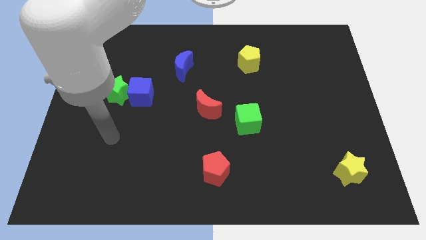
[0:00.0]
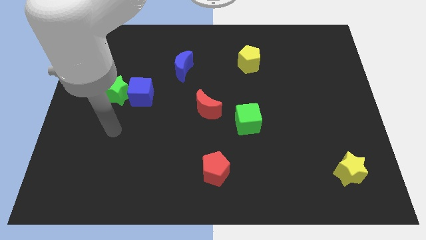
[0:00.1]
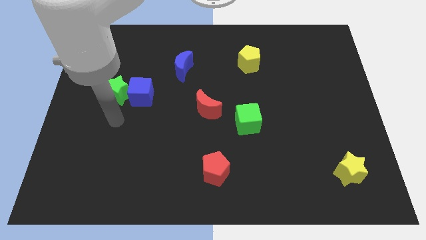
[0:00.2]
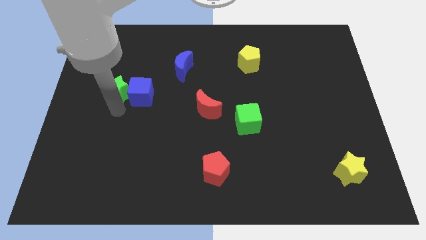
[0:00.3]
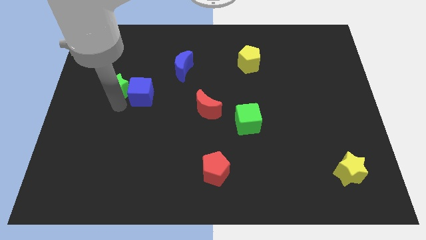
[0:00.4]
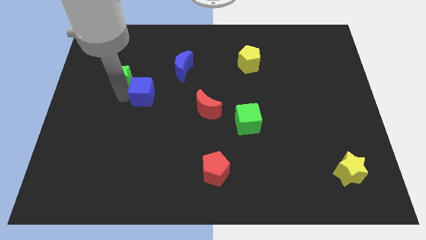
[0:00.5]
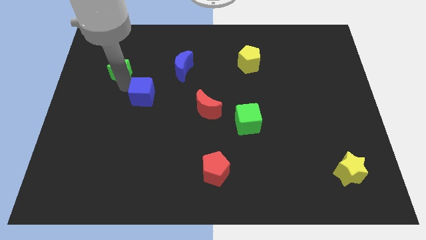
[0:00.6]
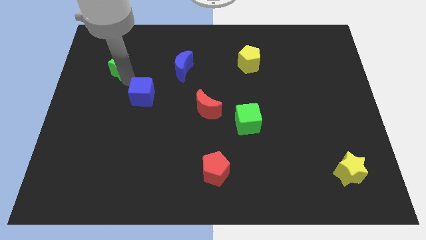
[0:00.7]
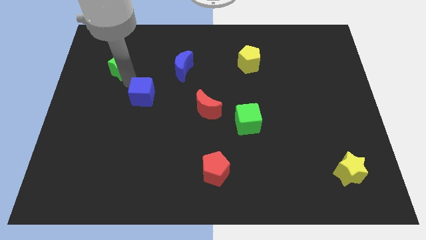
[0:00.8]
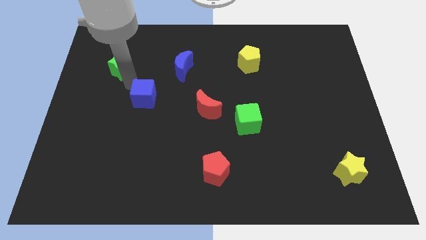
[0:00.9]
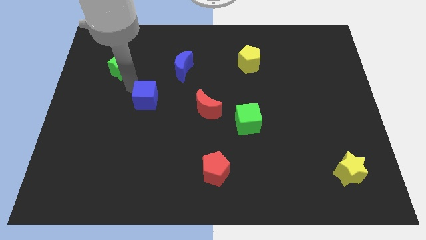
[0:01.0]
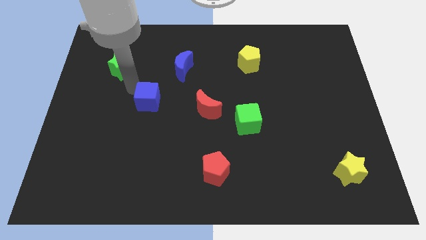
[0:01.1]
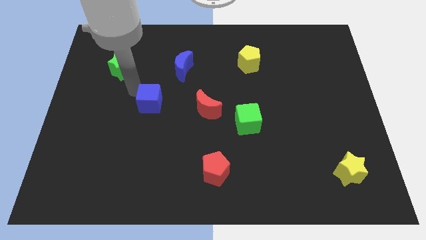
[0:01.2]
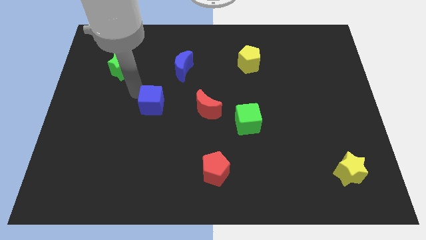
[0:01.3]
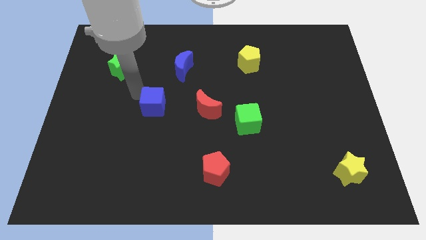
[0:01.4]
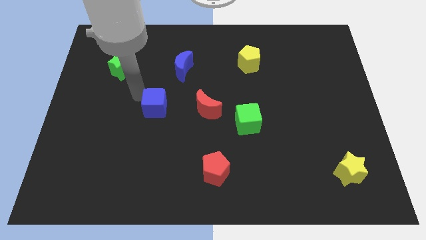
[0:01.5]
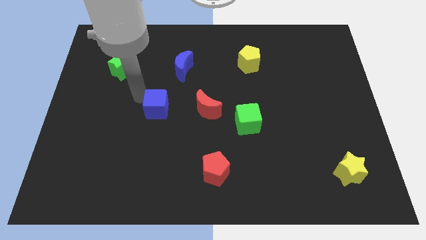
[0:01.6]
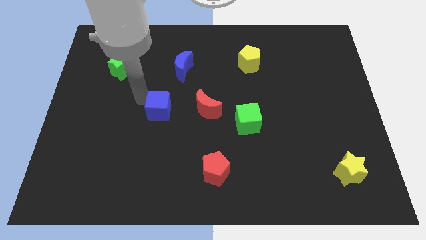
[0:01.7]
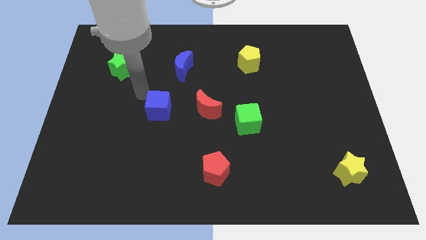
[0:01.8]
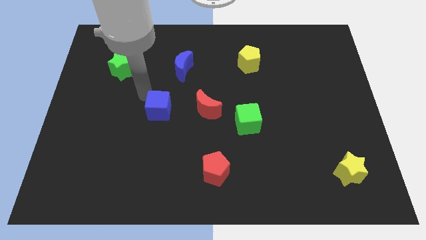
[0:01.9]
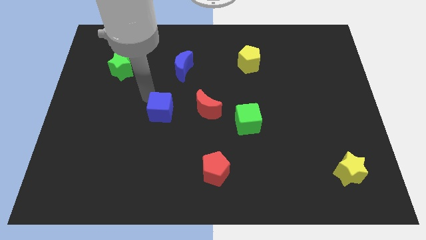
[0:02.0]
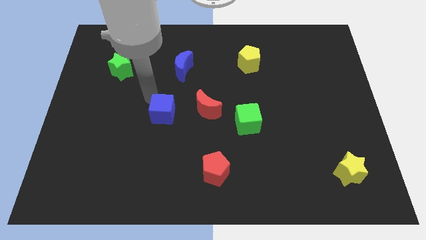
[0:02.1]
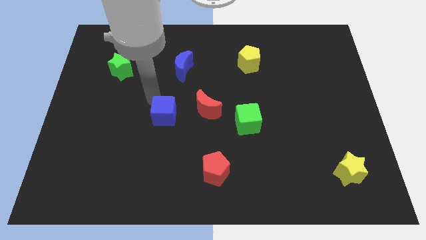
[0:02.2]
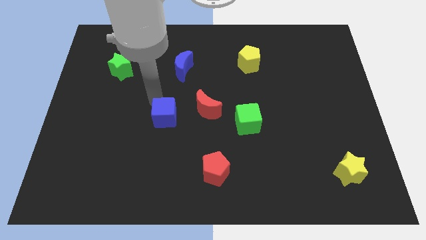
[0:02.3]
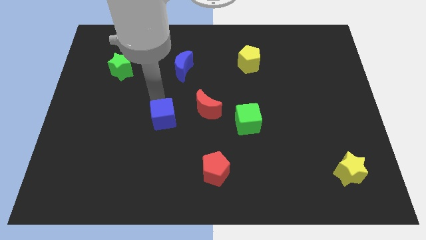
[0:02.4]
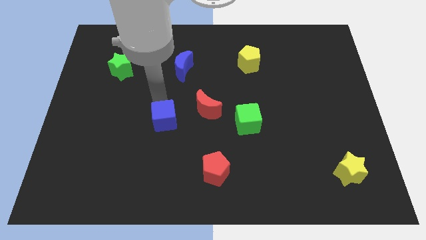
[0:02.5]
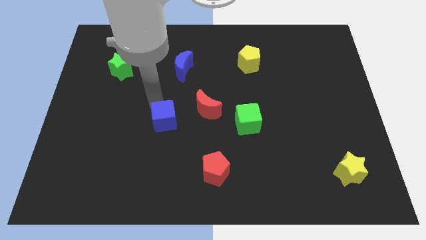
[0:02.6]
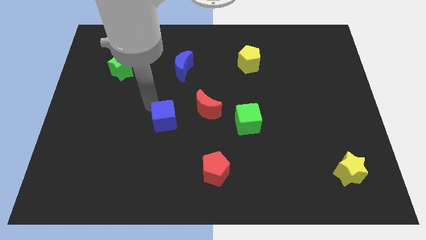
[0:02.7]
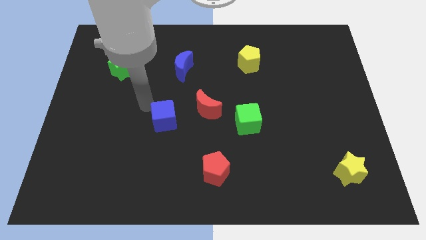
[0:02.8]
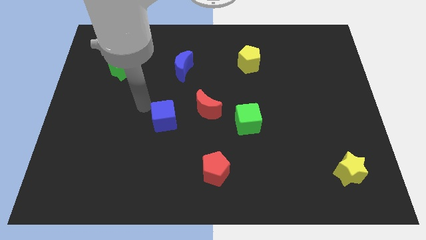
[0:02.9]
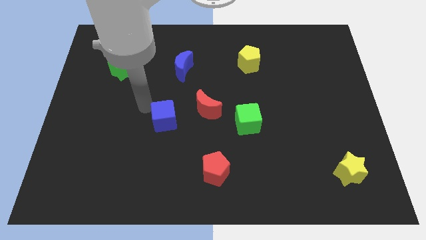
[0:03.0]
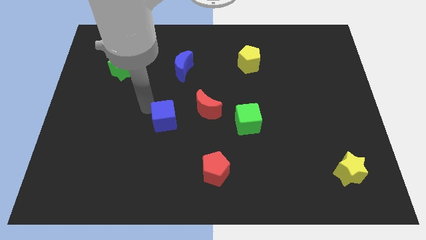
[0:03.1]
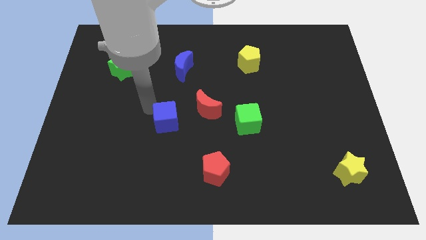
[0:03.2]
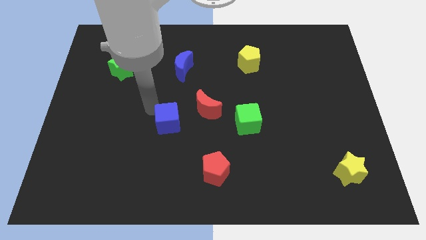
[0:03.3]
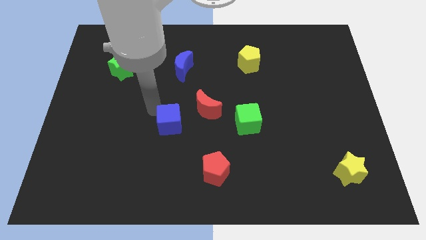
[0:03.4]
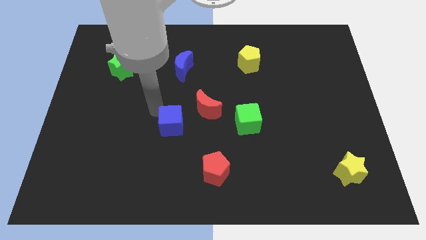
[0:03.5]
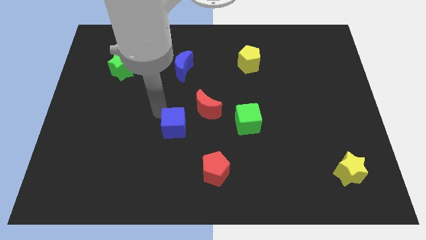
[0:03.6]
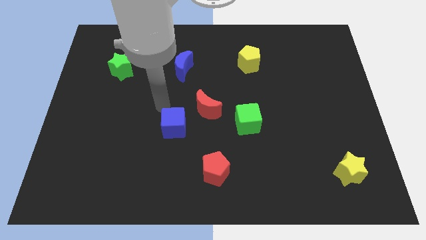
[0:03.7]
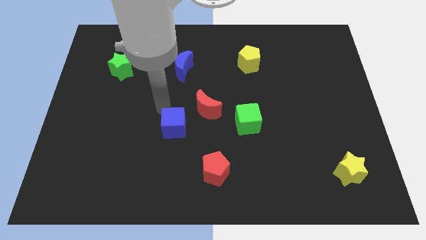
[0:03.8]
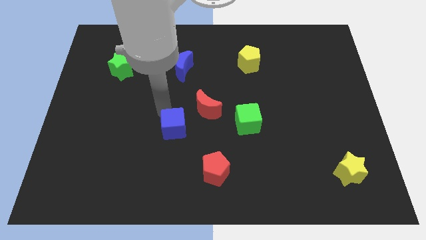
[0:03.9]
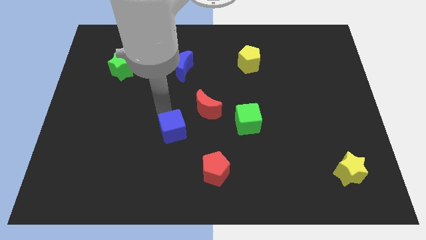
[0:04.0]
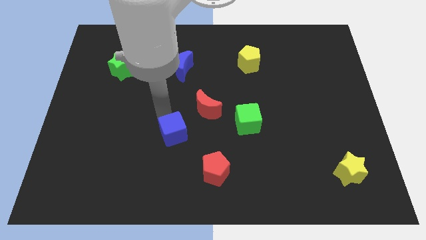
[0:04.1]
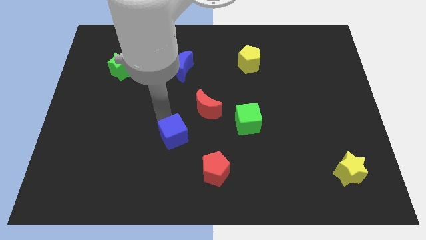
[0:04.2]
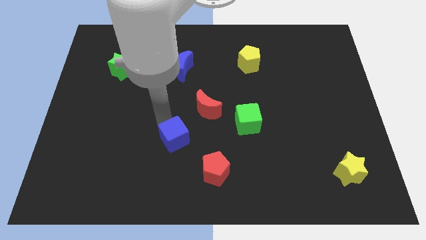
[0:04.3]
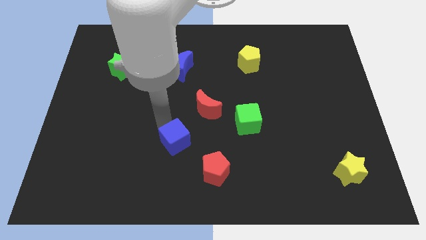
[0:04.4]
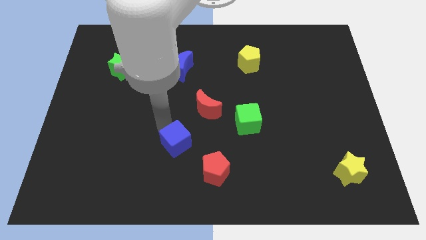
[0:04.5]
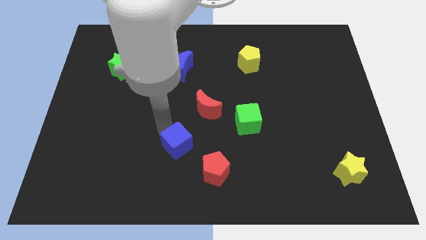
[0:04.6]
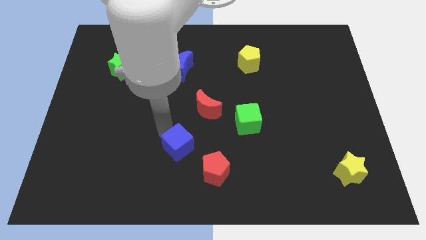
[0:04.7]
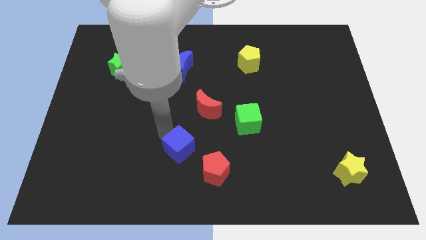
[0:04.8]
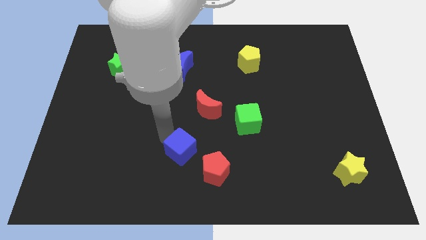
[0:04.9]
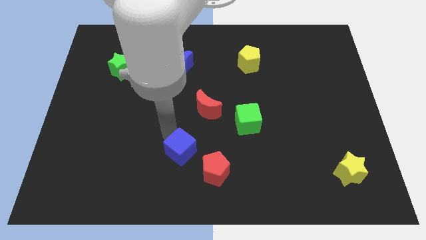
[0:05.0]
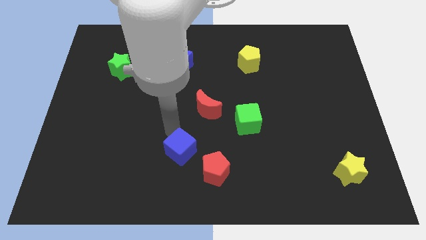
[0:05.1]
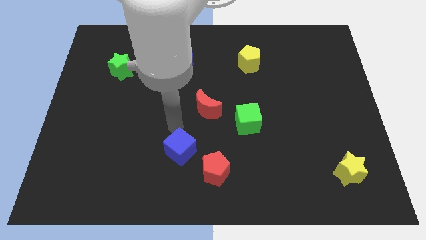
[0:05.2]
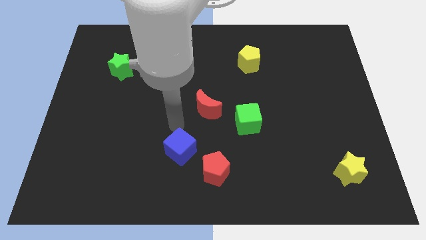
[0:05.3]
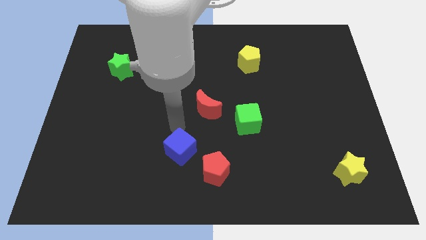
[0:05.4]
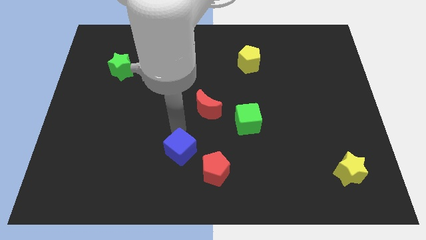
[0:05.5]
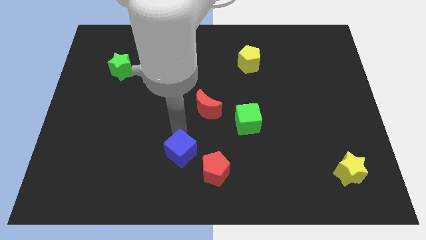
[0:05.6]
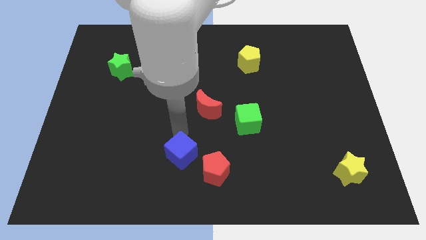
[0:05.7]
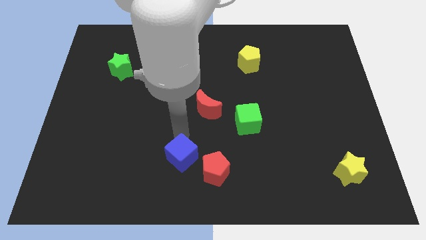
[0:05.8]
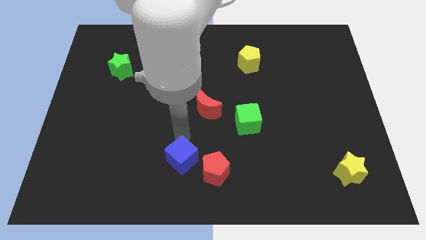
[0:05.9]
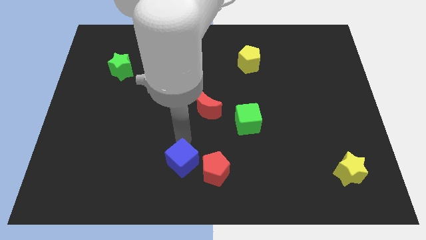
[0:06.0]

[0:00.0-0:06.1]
slide the blue cube to the bottom
